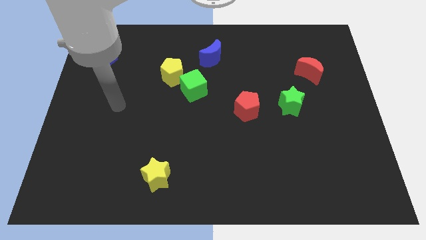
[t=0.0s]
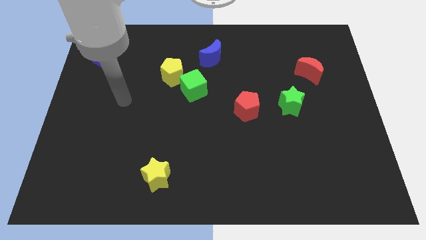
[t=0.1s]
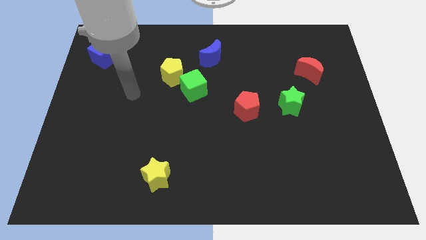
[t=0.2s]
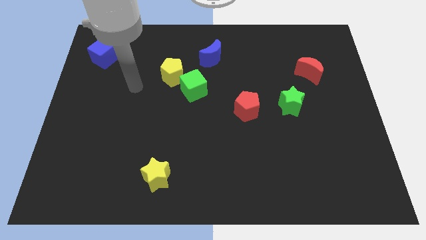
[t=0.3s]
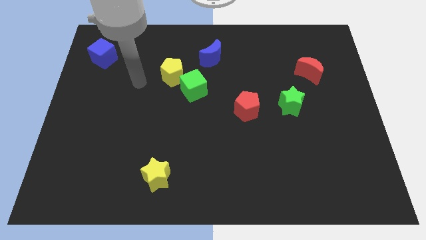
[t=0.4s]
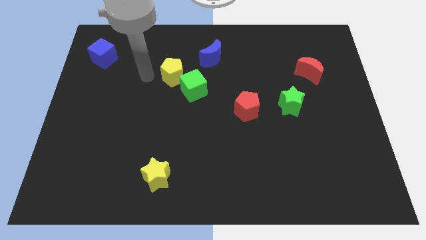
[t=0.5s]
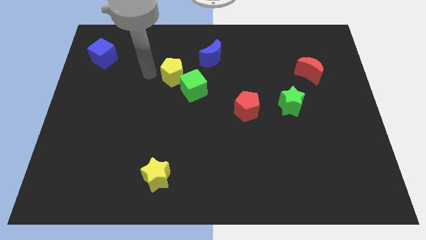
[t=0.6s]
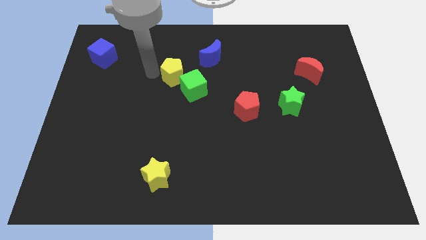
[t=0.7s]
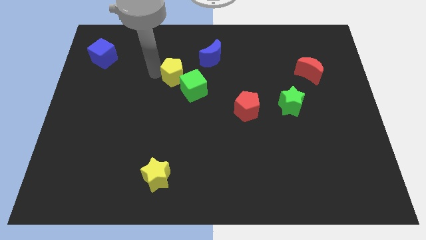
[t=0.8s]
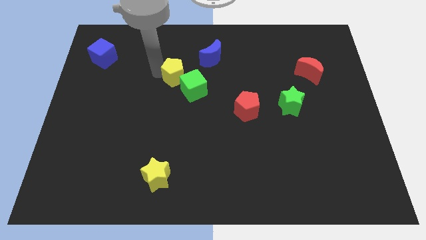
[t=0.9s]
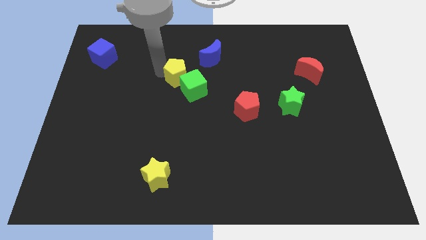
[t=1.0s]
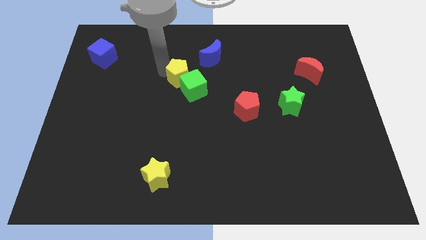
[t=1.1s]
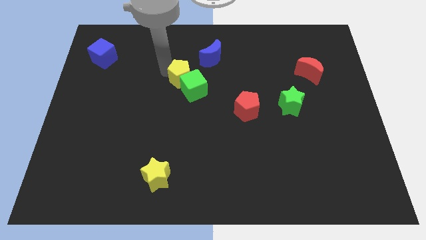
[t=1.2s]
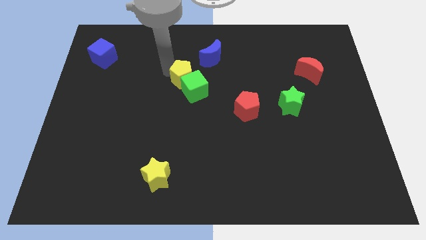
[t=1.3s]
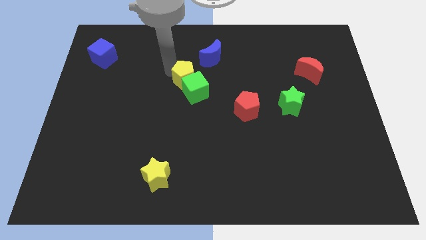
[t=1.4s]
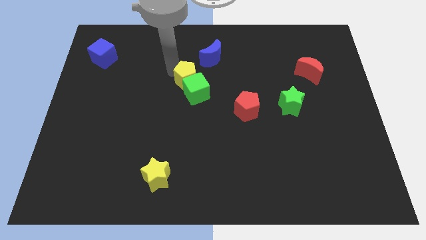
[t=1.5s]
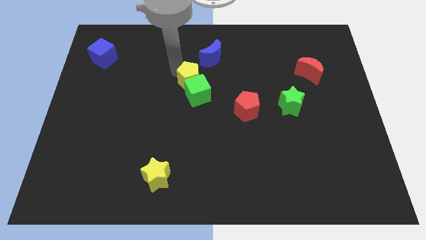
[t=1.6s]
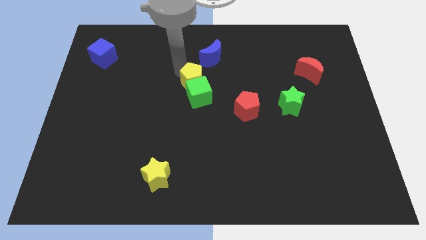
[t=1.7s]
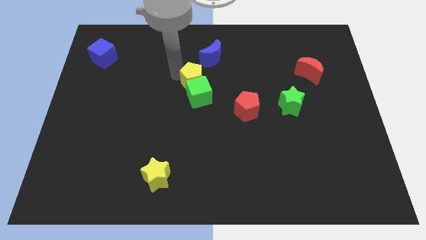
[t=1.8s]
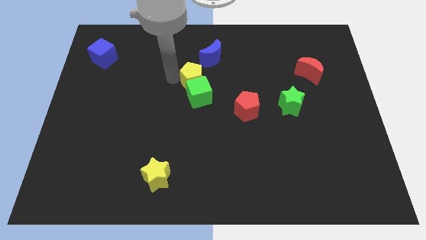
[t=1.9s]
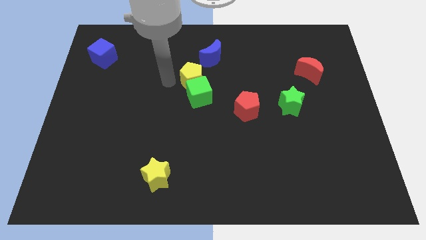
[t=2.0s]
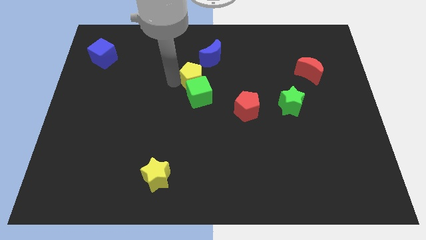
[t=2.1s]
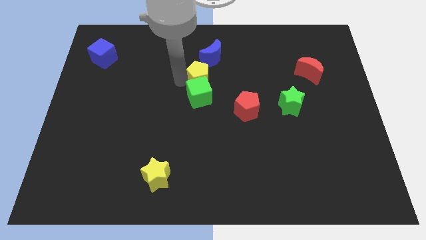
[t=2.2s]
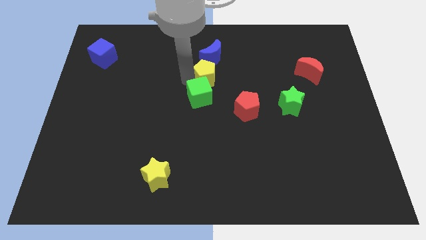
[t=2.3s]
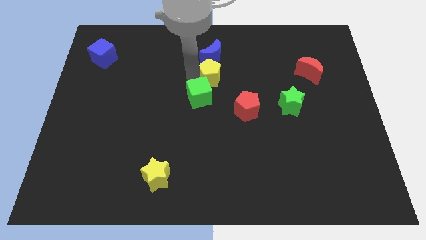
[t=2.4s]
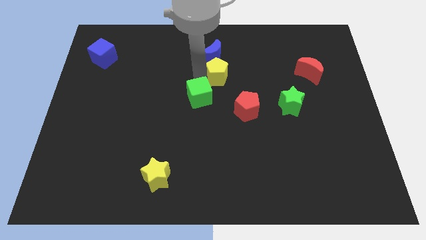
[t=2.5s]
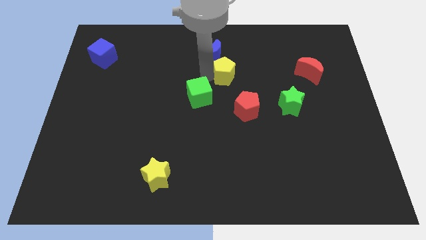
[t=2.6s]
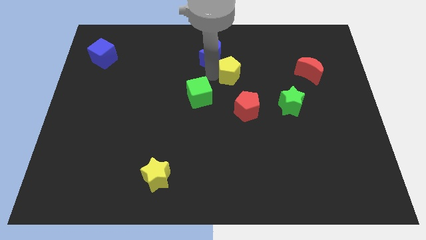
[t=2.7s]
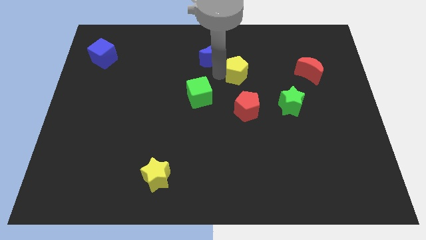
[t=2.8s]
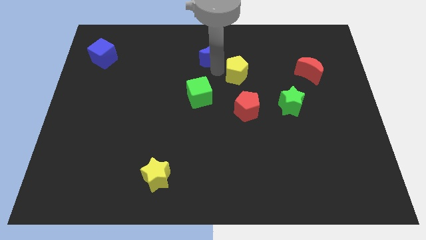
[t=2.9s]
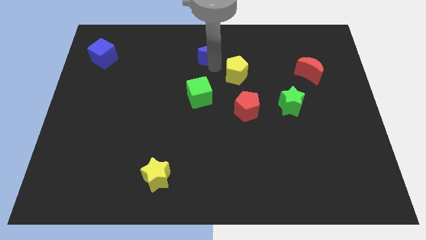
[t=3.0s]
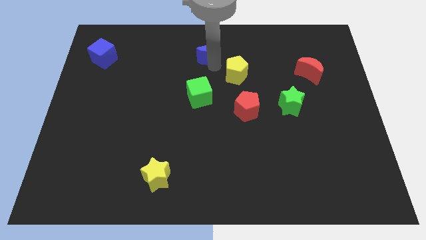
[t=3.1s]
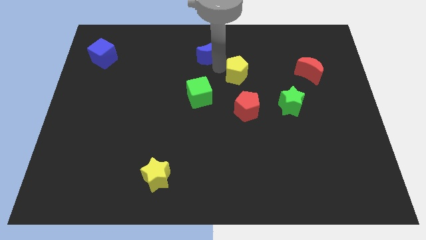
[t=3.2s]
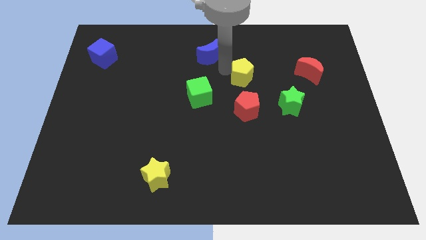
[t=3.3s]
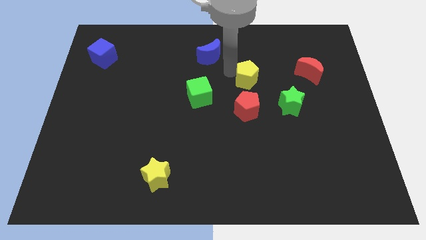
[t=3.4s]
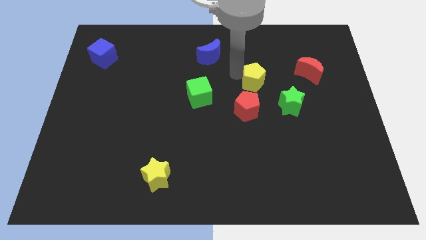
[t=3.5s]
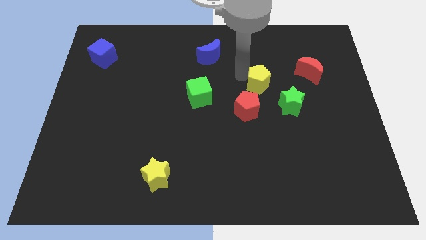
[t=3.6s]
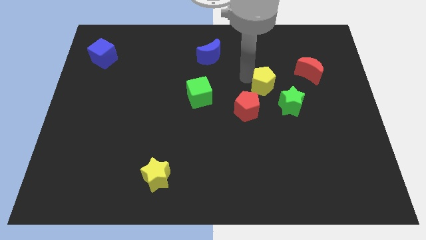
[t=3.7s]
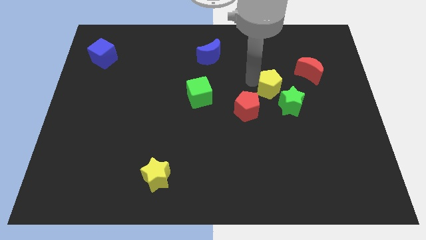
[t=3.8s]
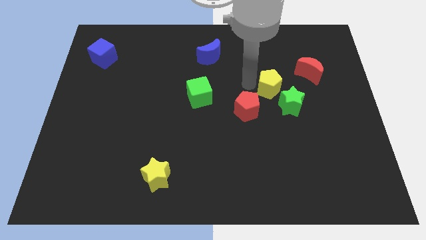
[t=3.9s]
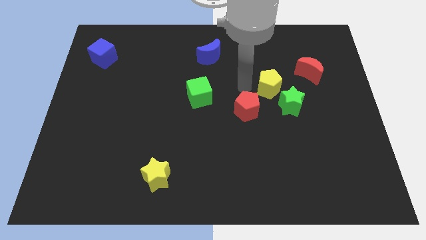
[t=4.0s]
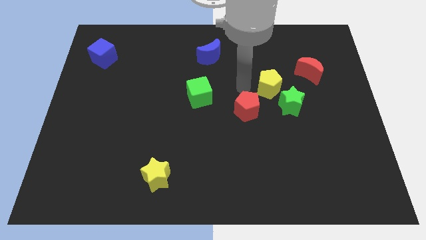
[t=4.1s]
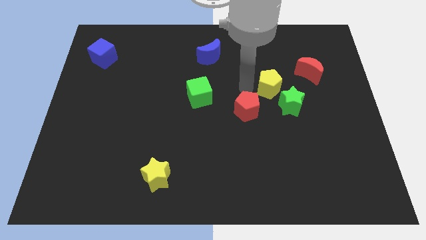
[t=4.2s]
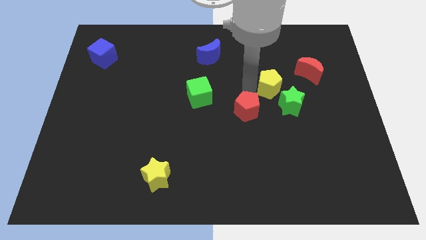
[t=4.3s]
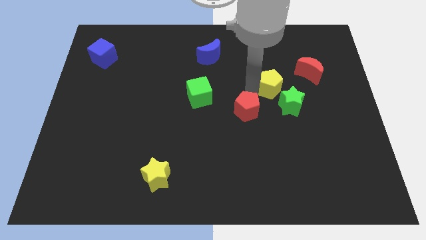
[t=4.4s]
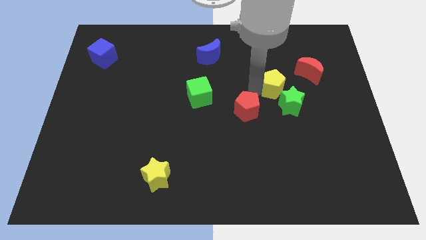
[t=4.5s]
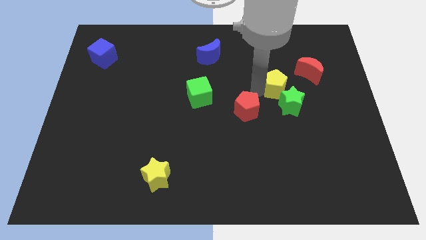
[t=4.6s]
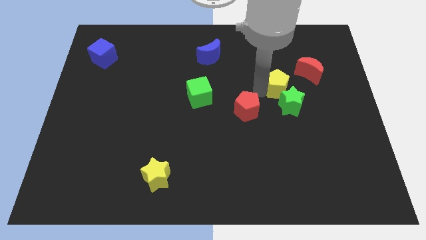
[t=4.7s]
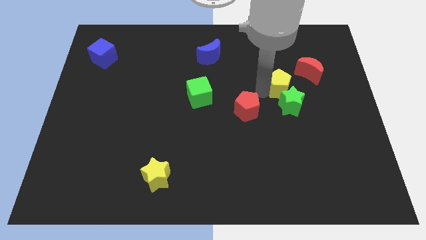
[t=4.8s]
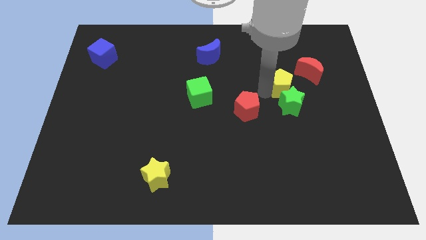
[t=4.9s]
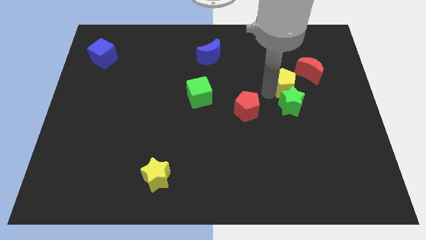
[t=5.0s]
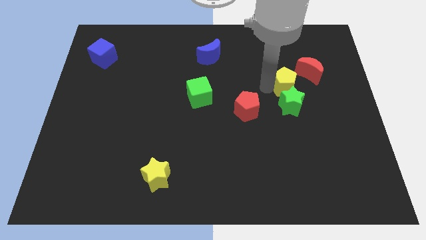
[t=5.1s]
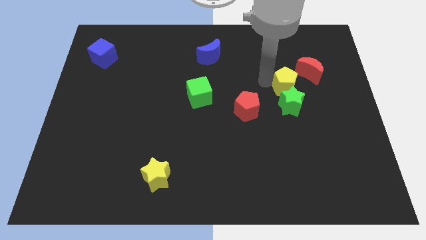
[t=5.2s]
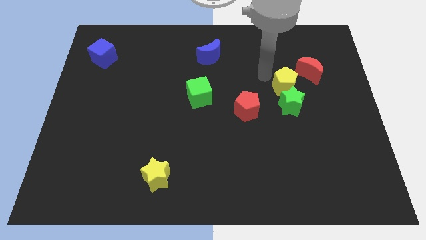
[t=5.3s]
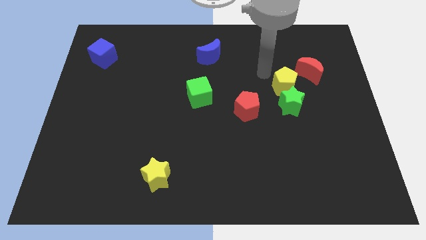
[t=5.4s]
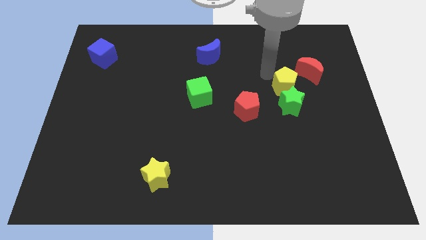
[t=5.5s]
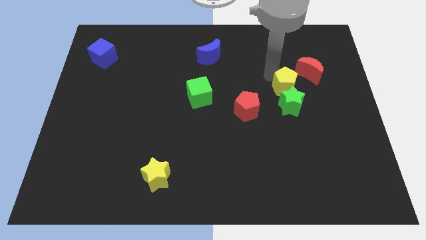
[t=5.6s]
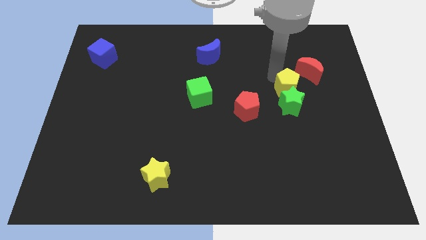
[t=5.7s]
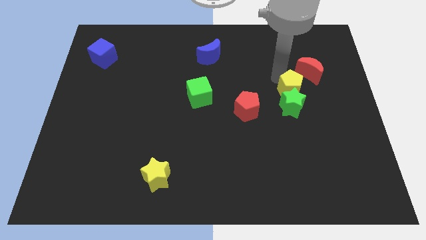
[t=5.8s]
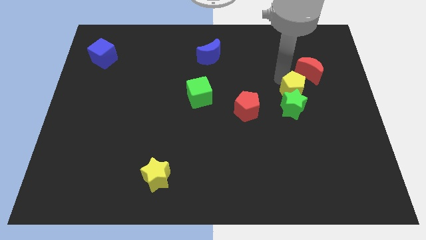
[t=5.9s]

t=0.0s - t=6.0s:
move the yellow pentagon to the bottom side of the red moon

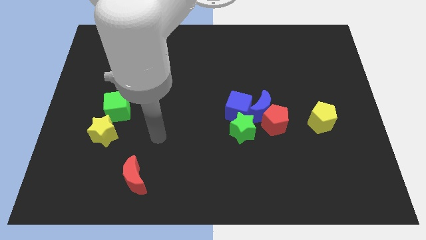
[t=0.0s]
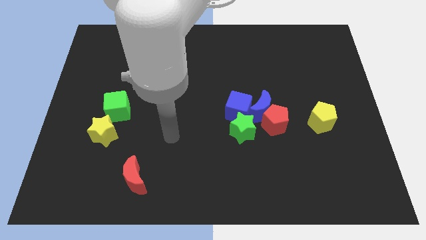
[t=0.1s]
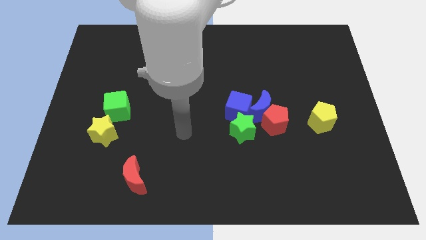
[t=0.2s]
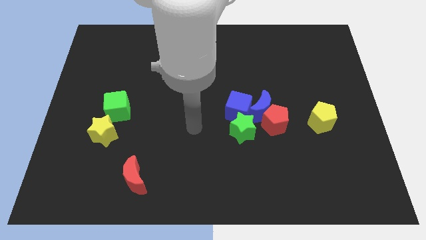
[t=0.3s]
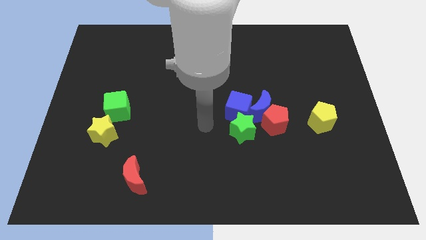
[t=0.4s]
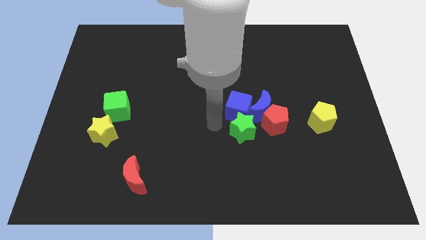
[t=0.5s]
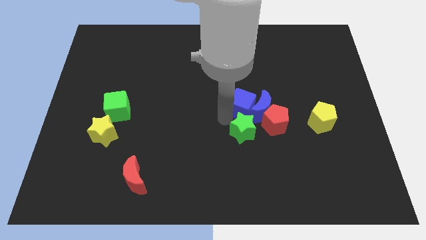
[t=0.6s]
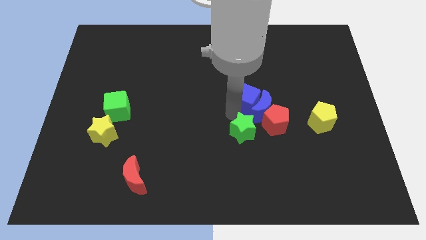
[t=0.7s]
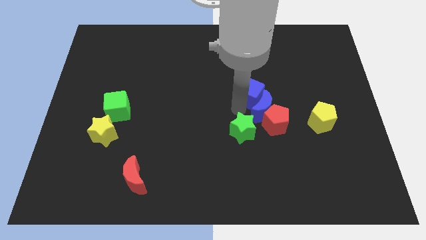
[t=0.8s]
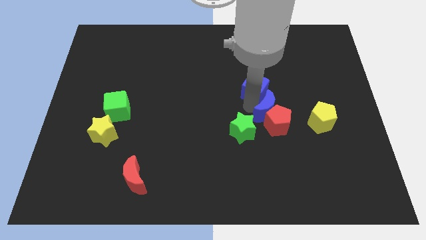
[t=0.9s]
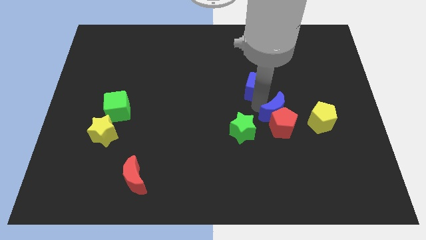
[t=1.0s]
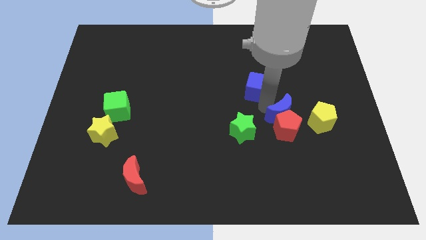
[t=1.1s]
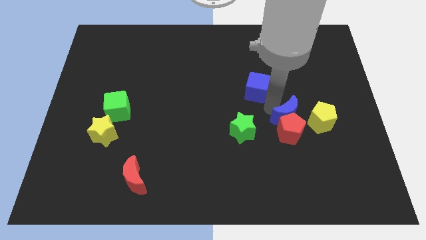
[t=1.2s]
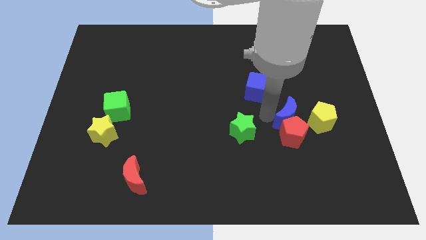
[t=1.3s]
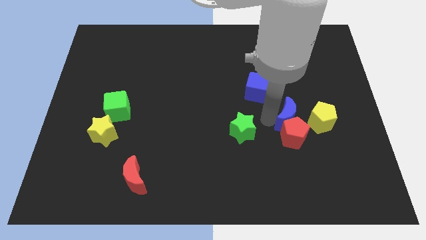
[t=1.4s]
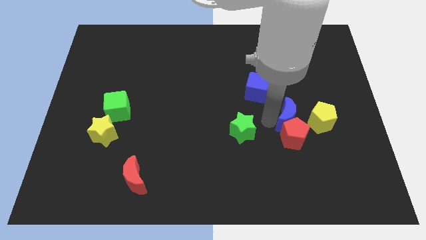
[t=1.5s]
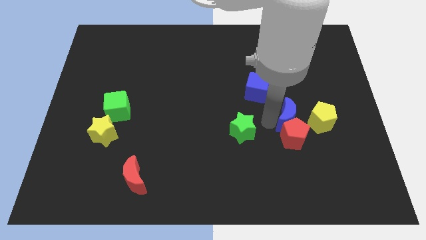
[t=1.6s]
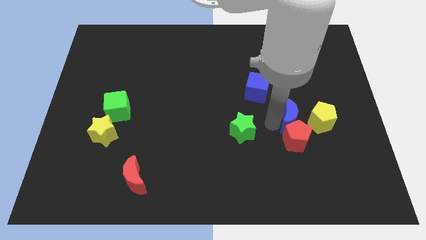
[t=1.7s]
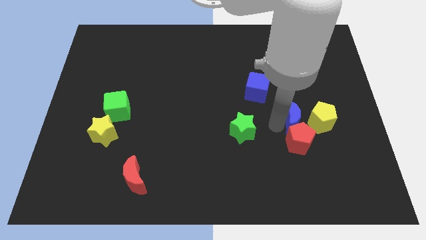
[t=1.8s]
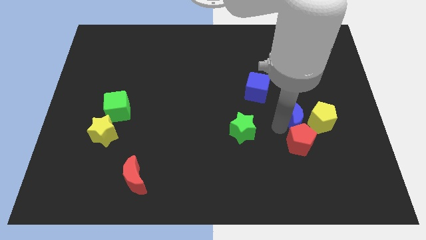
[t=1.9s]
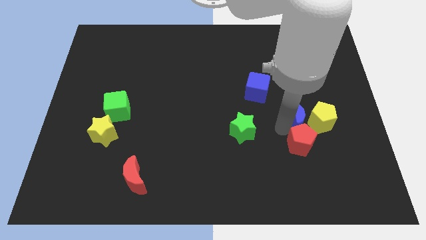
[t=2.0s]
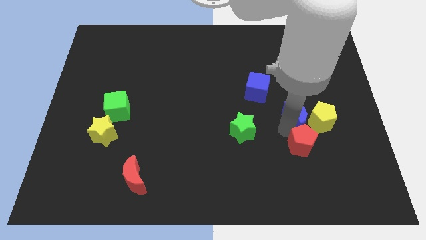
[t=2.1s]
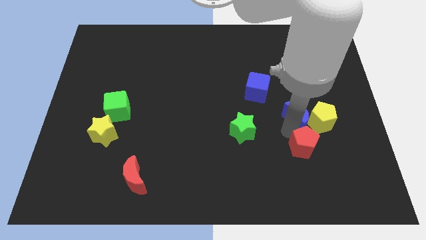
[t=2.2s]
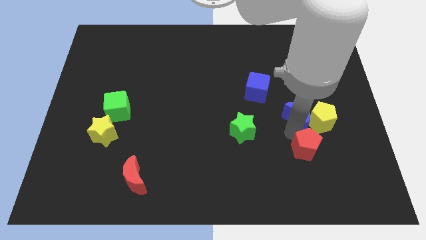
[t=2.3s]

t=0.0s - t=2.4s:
put the red pentagon to the bottom of the yellow pentagon
